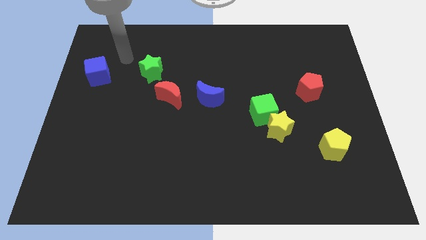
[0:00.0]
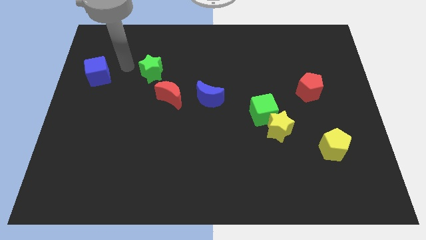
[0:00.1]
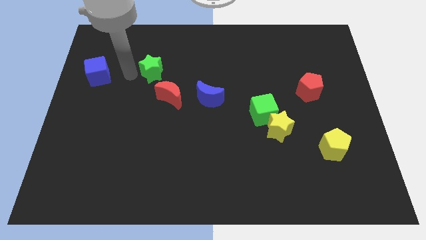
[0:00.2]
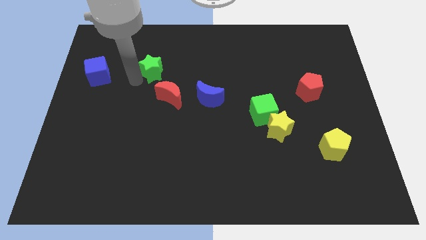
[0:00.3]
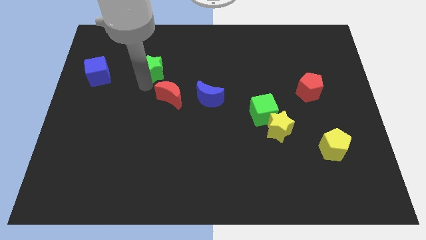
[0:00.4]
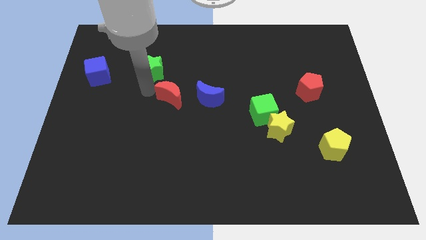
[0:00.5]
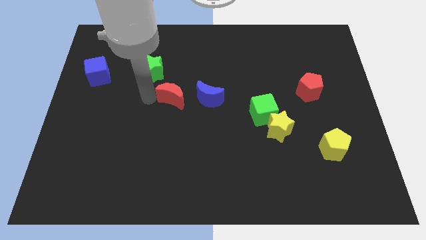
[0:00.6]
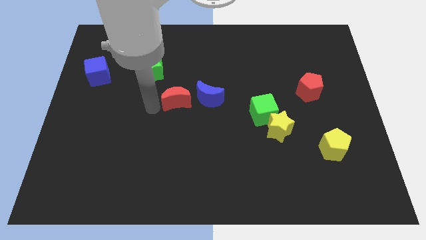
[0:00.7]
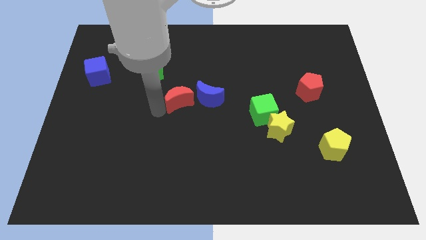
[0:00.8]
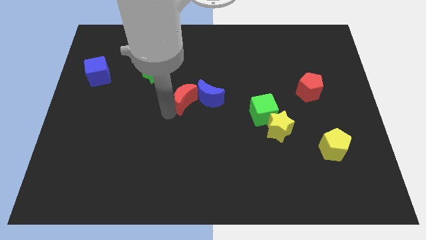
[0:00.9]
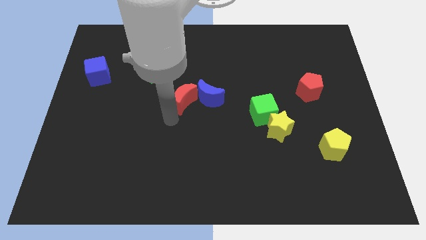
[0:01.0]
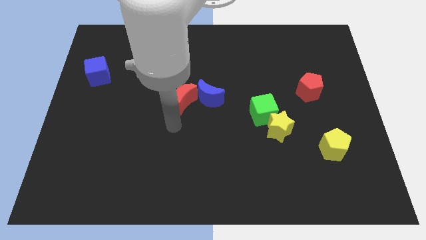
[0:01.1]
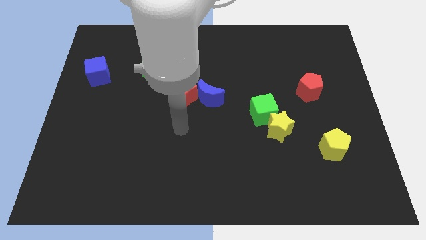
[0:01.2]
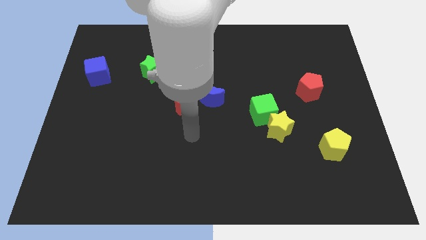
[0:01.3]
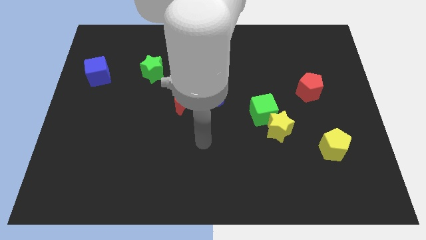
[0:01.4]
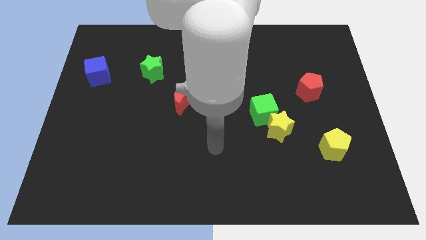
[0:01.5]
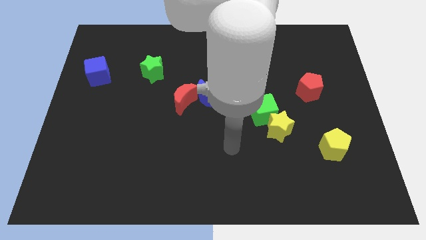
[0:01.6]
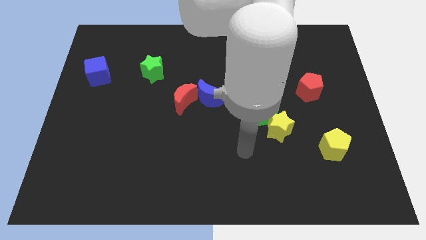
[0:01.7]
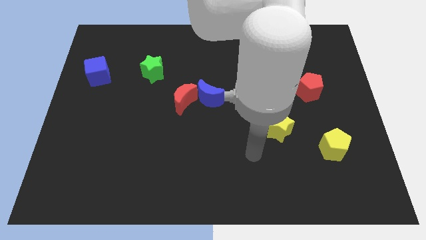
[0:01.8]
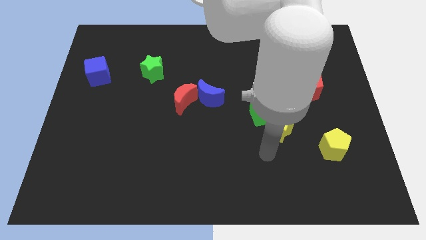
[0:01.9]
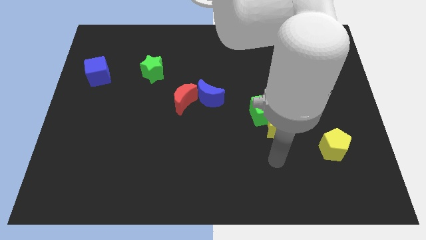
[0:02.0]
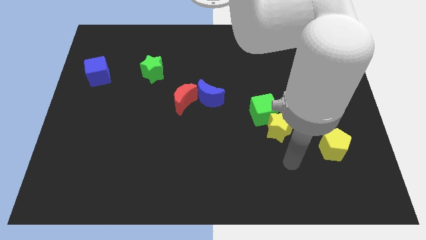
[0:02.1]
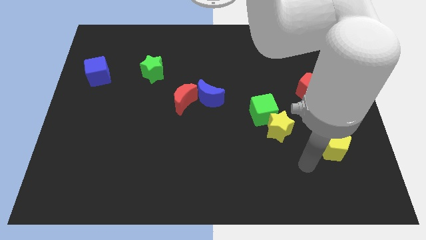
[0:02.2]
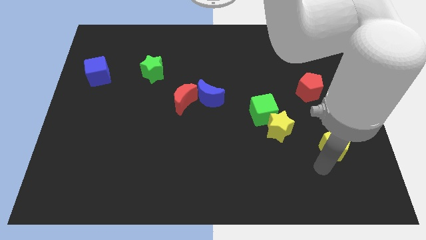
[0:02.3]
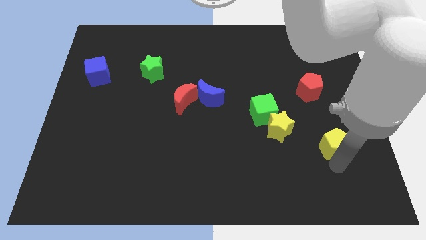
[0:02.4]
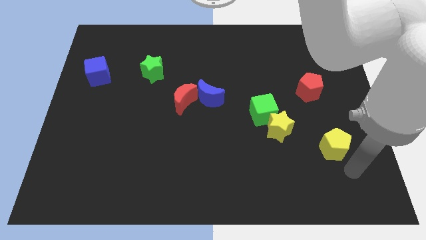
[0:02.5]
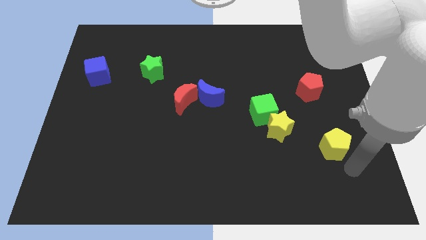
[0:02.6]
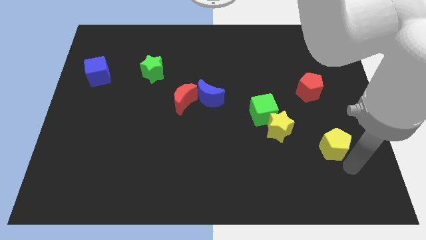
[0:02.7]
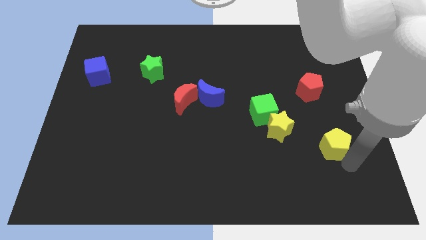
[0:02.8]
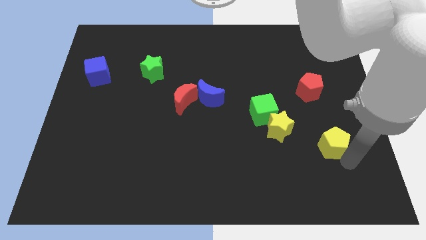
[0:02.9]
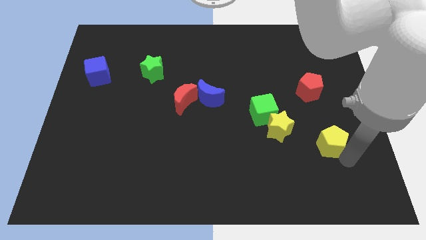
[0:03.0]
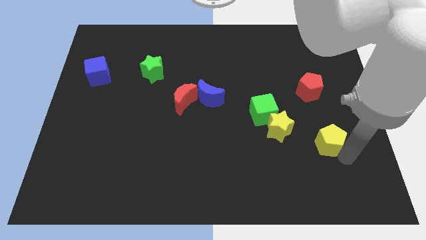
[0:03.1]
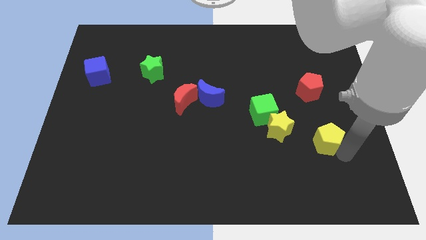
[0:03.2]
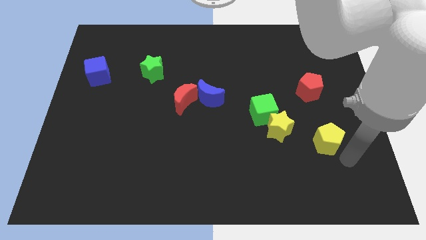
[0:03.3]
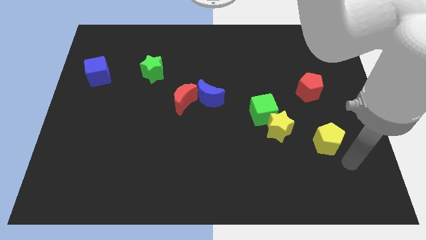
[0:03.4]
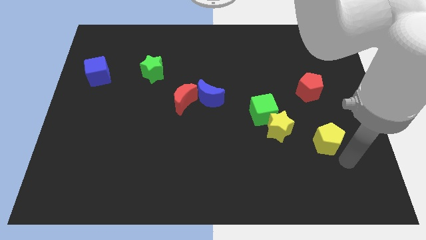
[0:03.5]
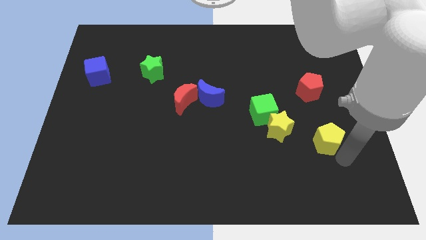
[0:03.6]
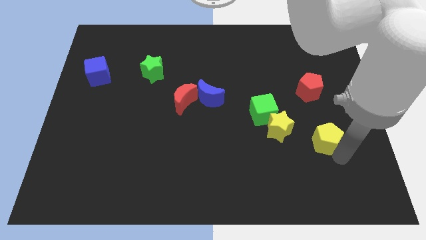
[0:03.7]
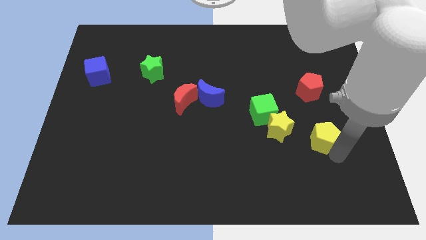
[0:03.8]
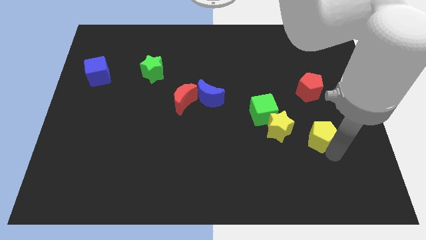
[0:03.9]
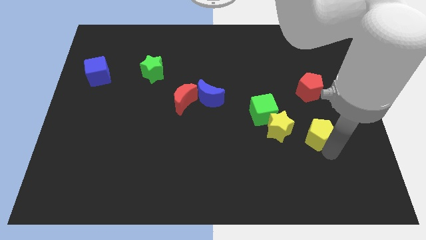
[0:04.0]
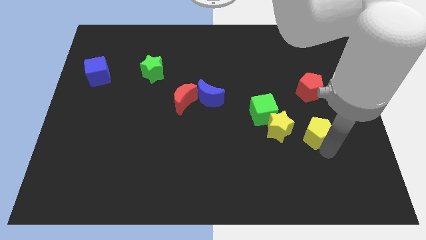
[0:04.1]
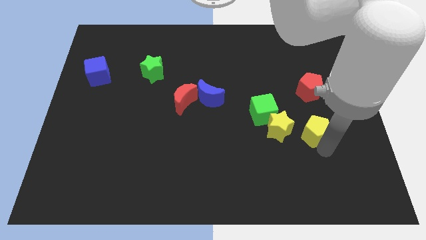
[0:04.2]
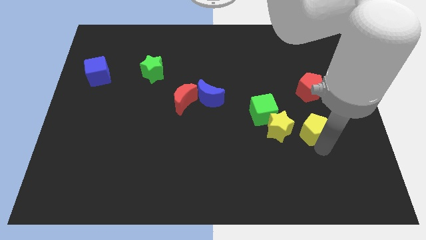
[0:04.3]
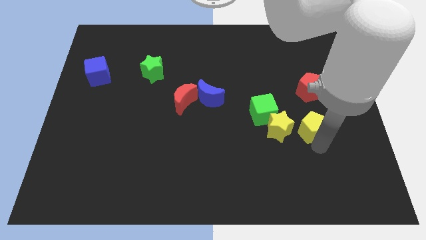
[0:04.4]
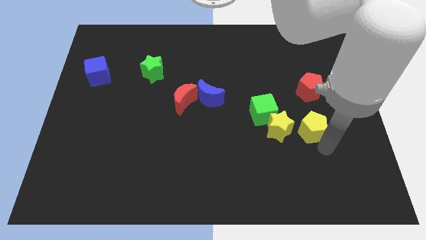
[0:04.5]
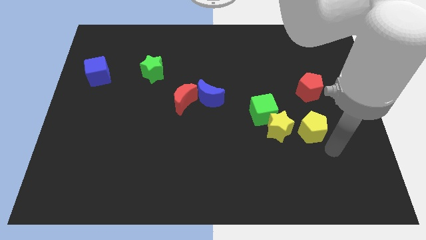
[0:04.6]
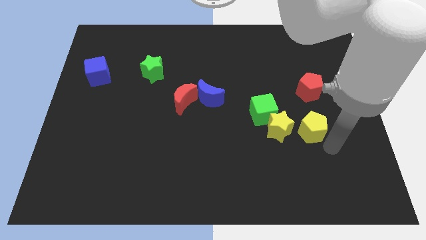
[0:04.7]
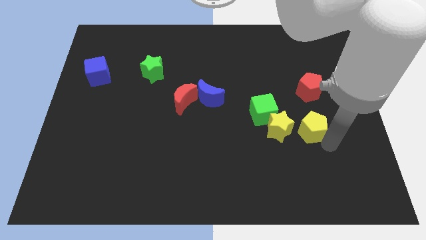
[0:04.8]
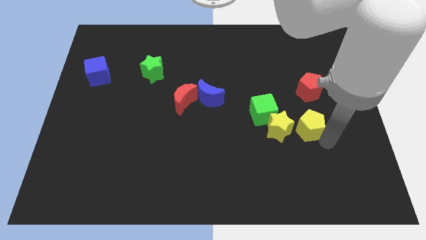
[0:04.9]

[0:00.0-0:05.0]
slightly push the yellow pentagon up and then left

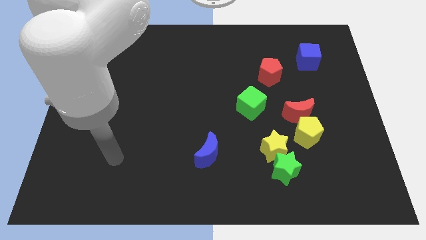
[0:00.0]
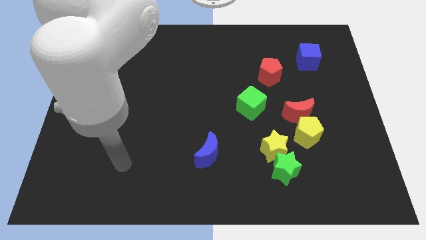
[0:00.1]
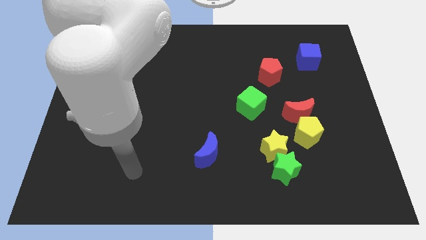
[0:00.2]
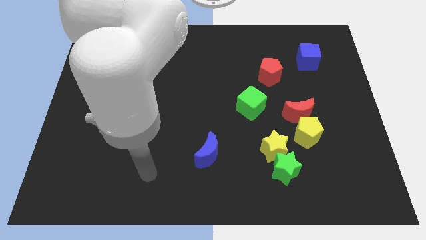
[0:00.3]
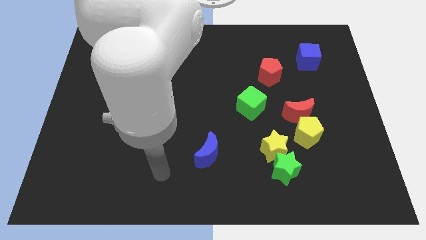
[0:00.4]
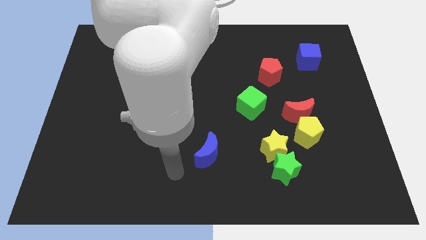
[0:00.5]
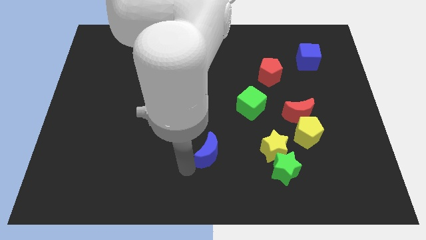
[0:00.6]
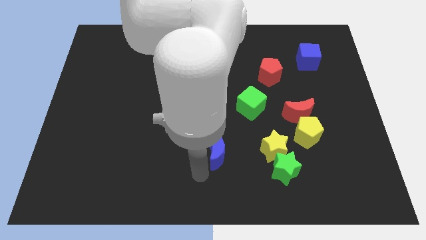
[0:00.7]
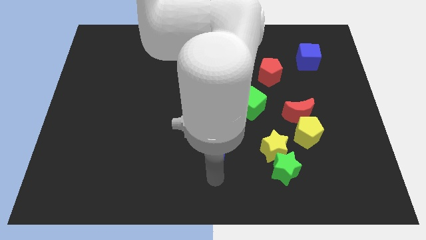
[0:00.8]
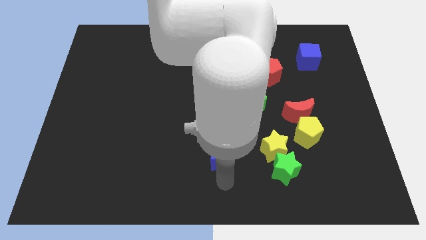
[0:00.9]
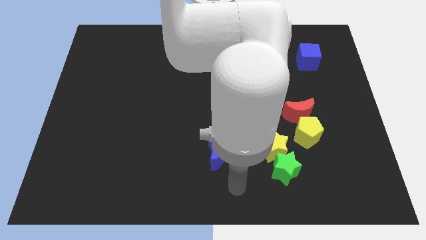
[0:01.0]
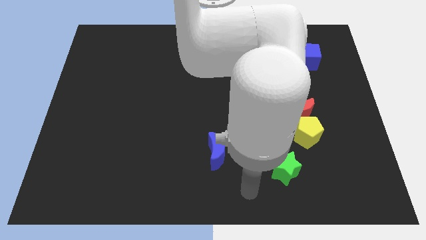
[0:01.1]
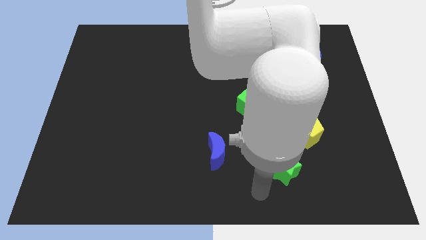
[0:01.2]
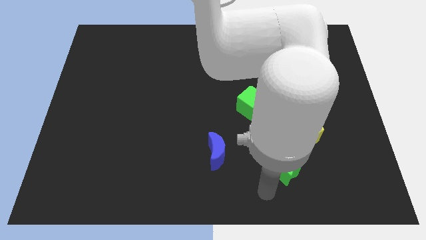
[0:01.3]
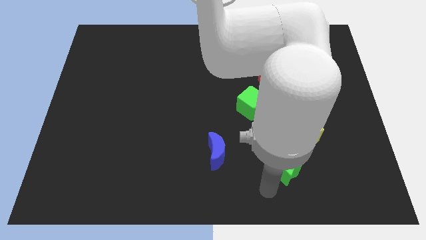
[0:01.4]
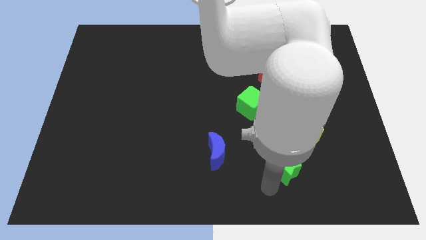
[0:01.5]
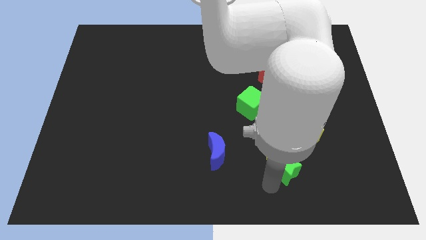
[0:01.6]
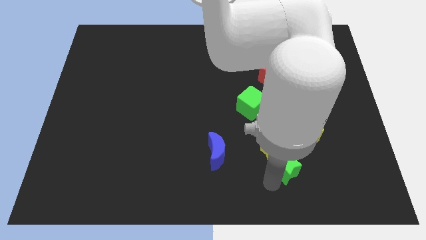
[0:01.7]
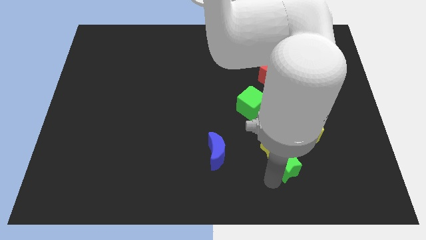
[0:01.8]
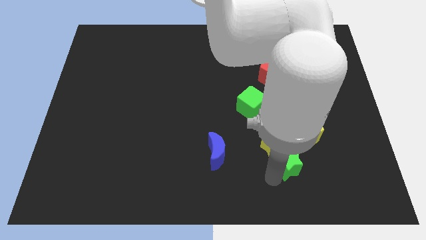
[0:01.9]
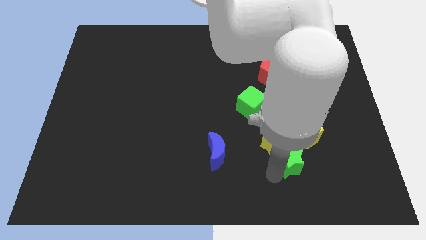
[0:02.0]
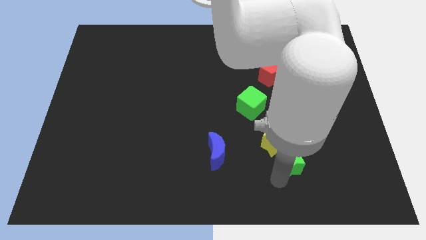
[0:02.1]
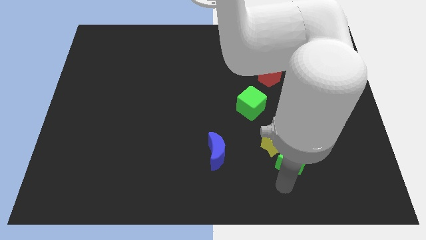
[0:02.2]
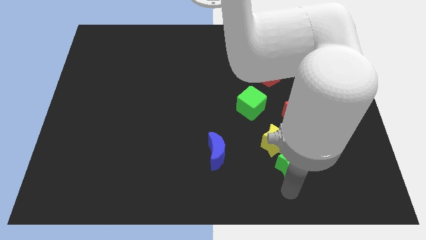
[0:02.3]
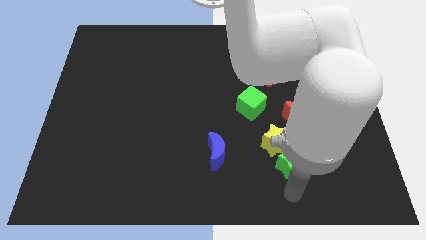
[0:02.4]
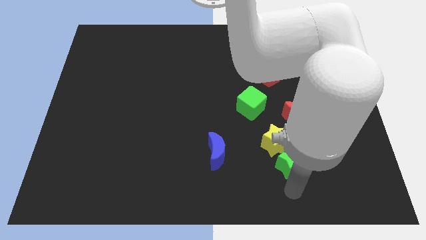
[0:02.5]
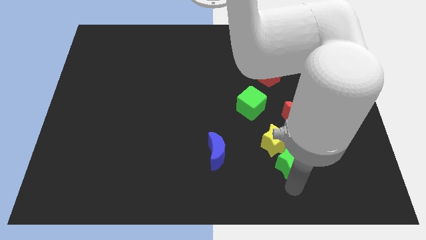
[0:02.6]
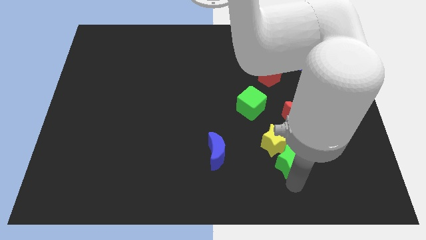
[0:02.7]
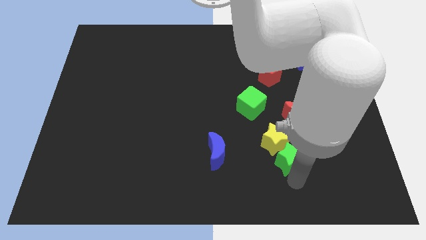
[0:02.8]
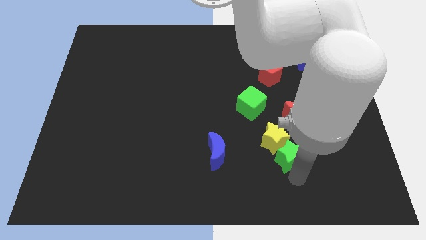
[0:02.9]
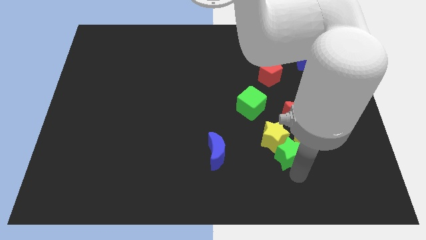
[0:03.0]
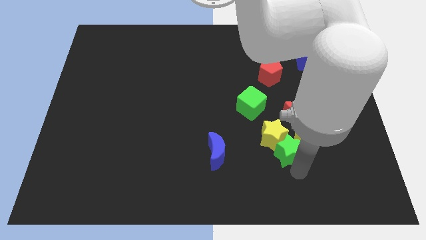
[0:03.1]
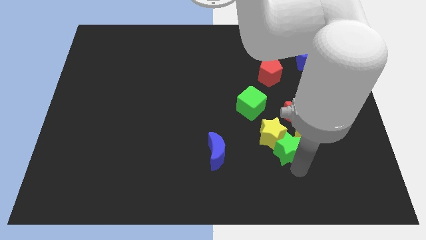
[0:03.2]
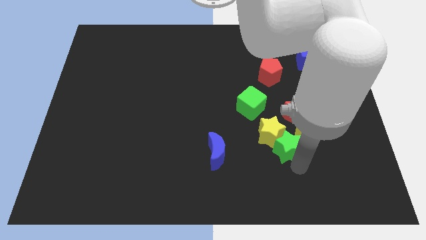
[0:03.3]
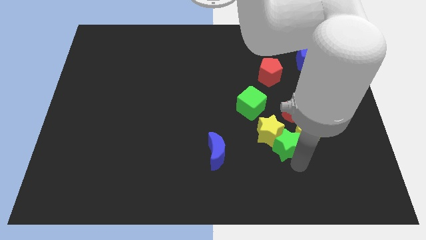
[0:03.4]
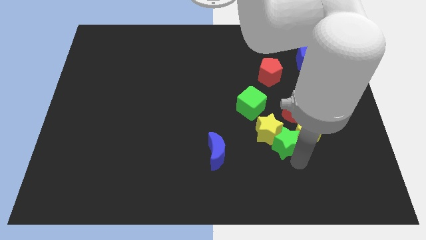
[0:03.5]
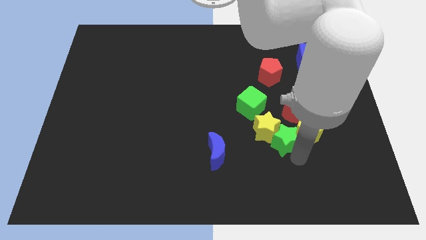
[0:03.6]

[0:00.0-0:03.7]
slightly slide the green star upwards
